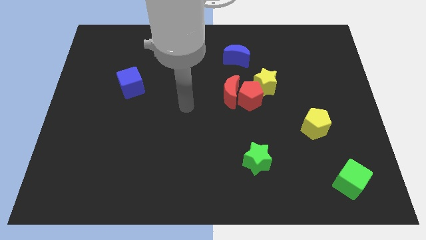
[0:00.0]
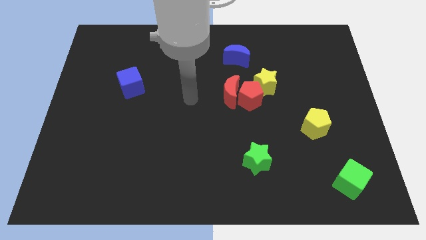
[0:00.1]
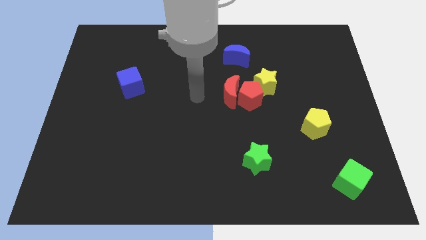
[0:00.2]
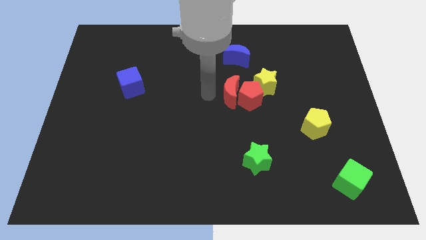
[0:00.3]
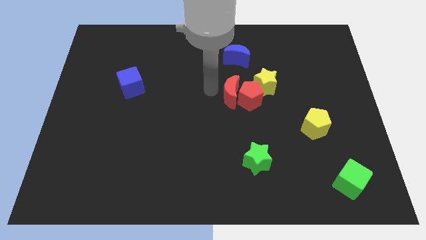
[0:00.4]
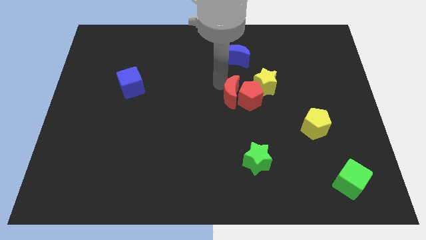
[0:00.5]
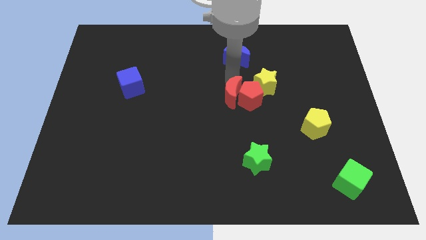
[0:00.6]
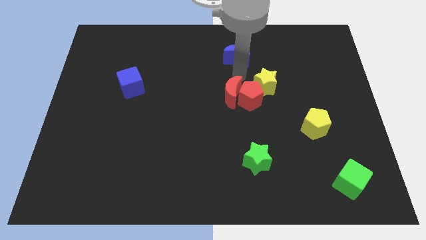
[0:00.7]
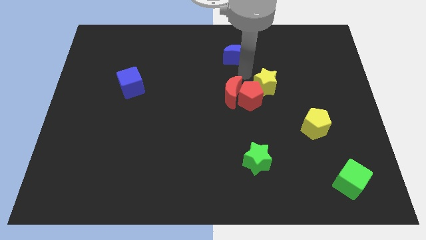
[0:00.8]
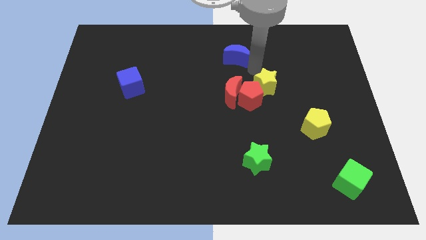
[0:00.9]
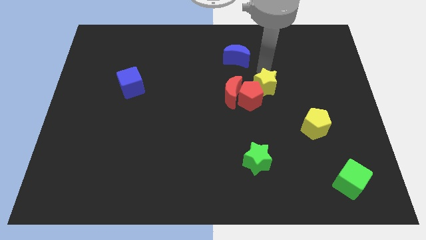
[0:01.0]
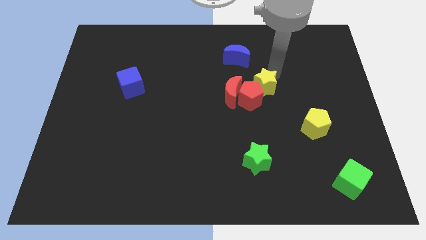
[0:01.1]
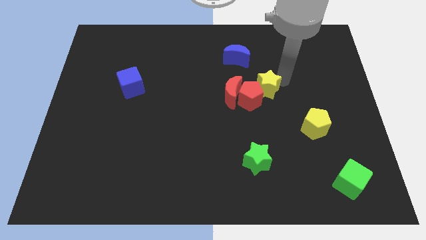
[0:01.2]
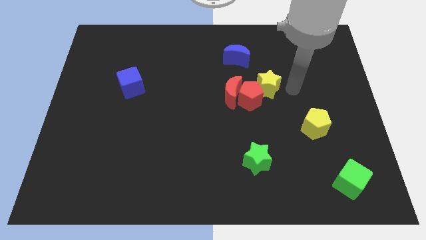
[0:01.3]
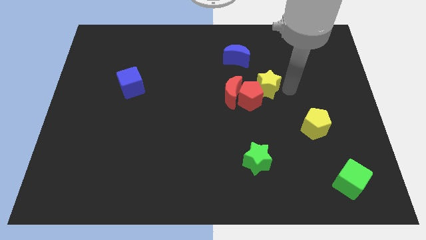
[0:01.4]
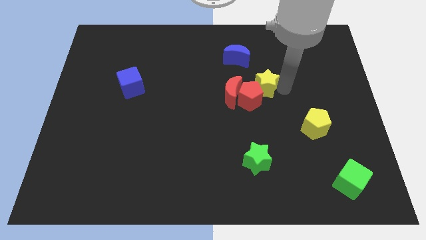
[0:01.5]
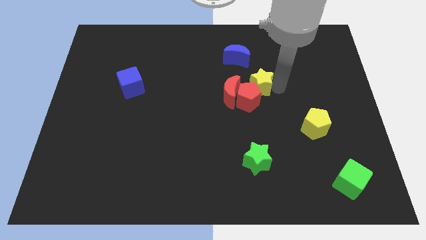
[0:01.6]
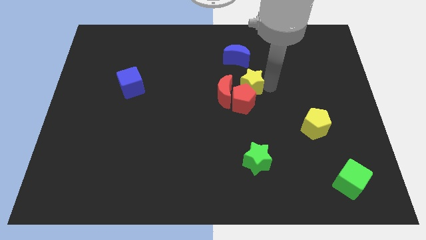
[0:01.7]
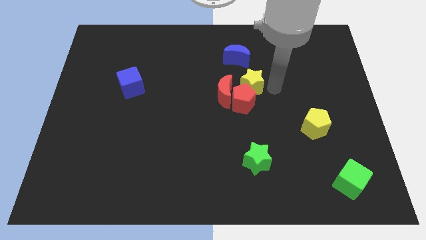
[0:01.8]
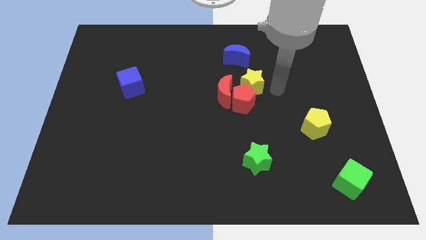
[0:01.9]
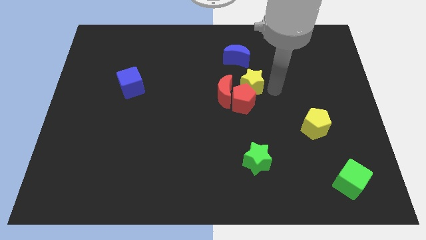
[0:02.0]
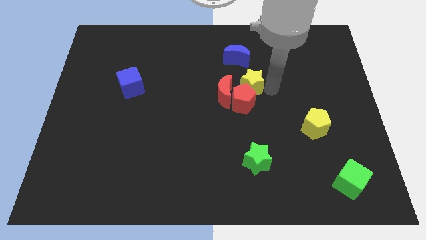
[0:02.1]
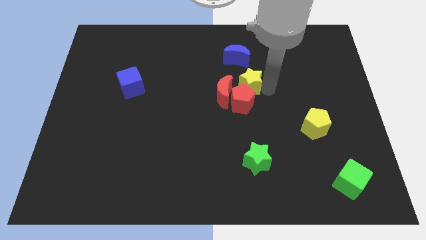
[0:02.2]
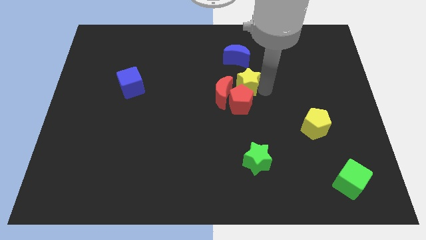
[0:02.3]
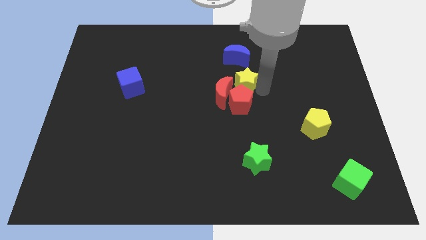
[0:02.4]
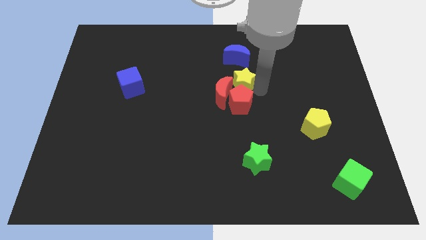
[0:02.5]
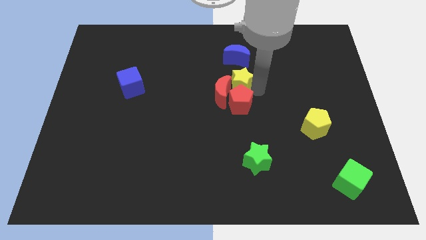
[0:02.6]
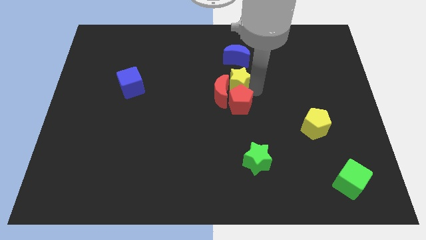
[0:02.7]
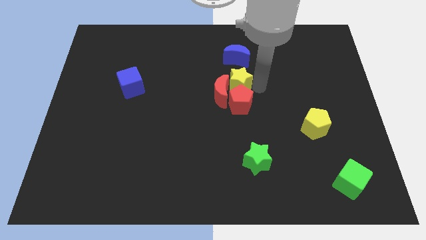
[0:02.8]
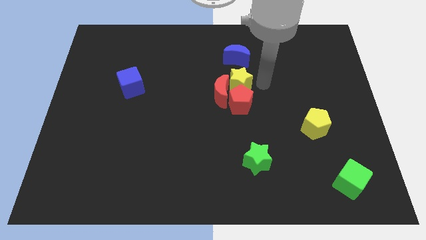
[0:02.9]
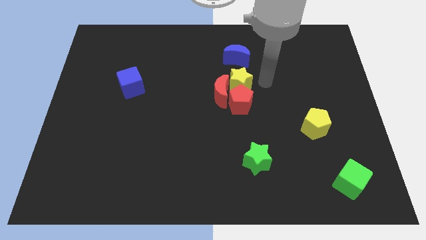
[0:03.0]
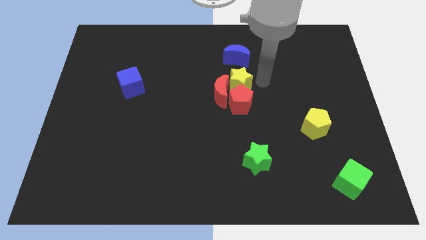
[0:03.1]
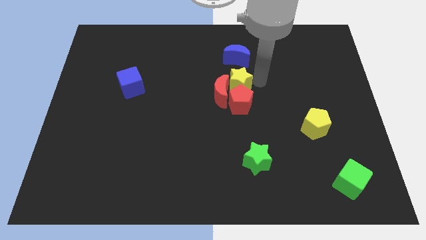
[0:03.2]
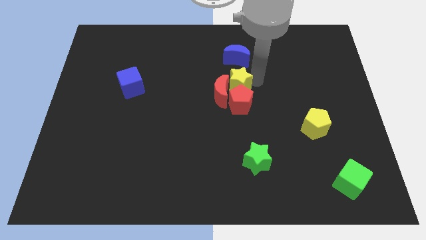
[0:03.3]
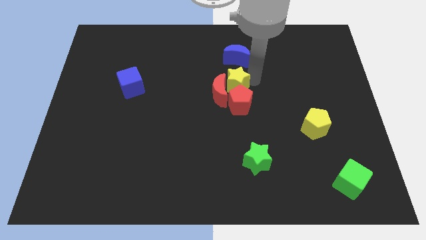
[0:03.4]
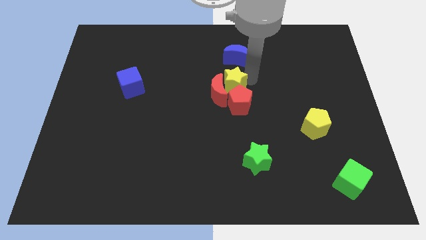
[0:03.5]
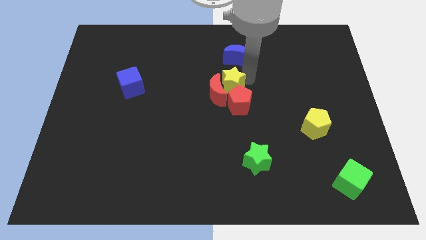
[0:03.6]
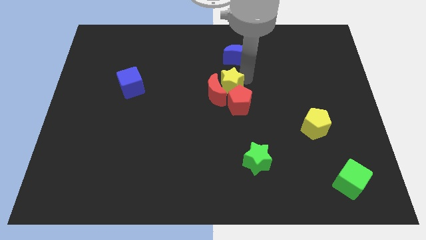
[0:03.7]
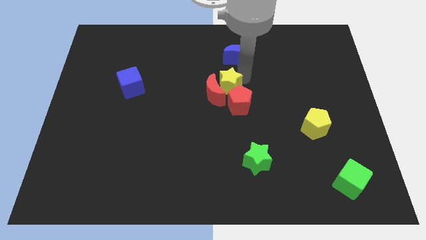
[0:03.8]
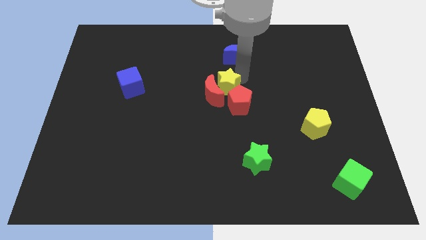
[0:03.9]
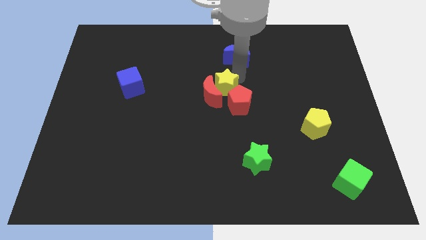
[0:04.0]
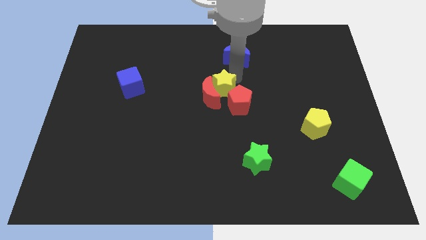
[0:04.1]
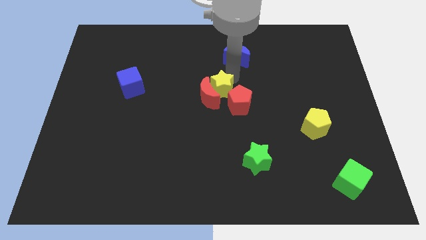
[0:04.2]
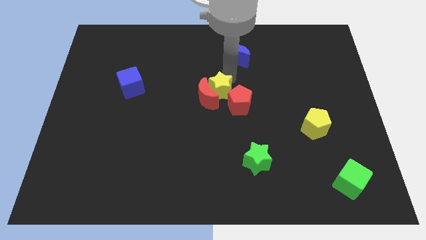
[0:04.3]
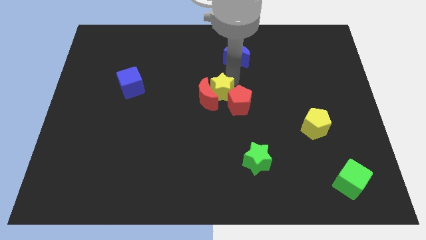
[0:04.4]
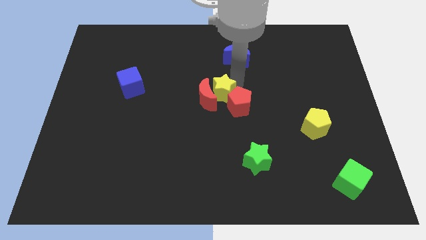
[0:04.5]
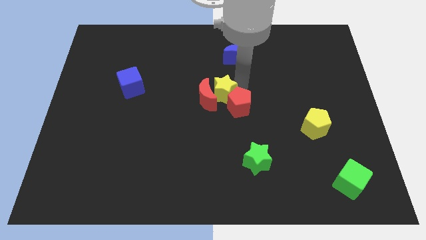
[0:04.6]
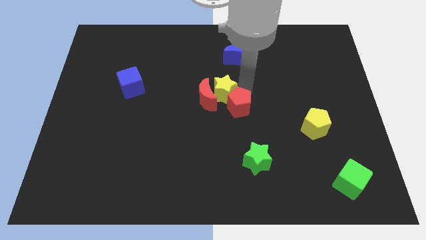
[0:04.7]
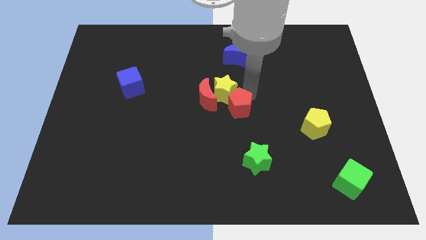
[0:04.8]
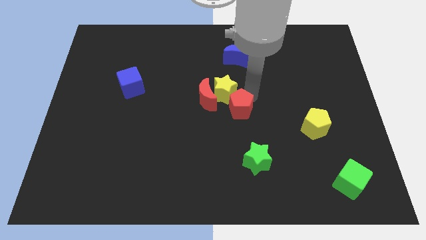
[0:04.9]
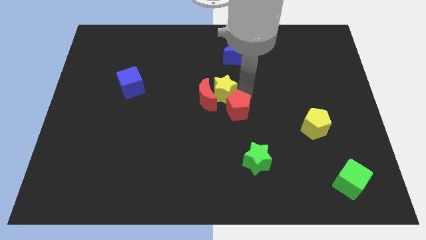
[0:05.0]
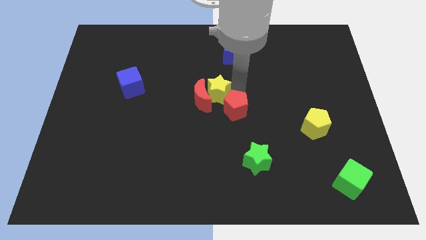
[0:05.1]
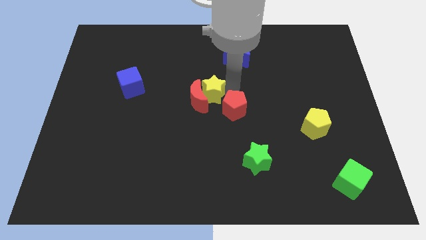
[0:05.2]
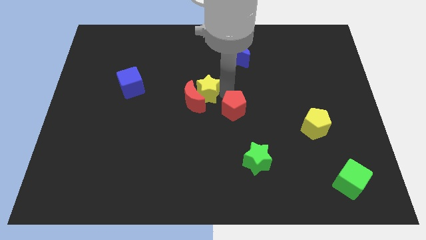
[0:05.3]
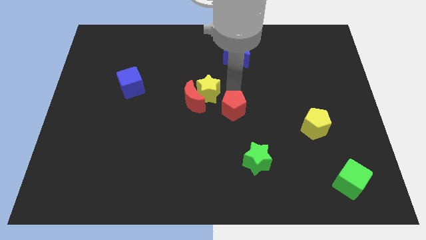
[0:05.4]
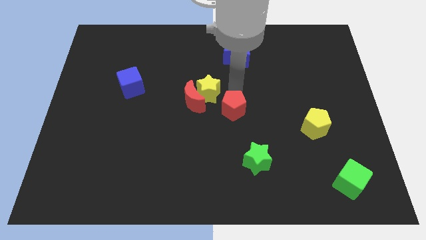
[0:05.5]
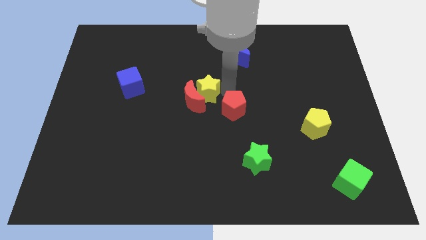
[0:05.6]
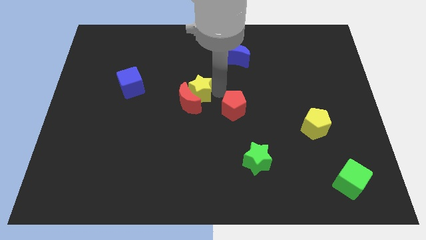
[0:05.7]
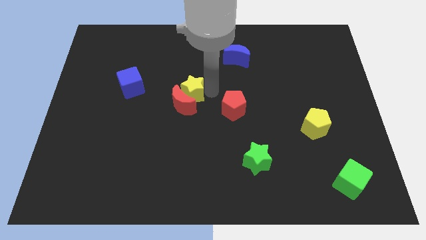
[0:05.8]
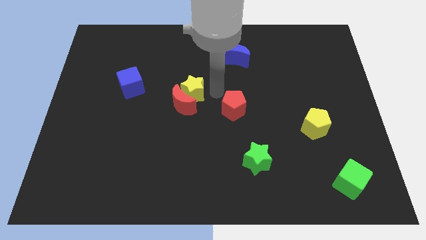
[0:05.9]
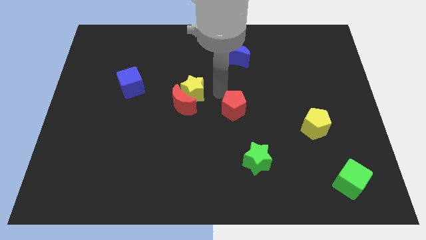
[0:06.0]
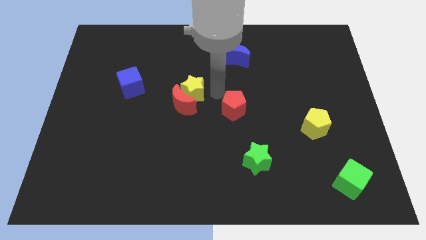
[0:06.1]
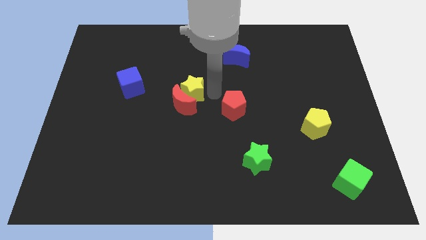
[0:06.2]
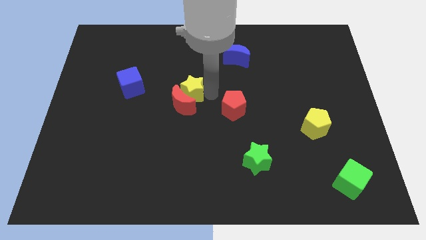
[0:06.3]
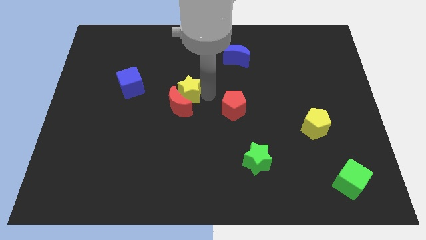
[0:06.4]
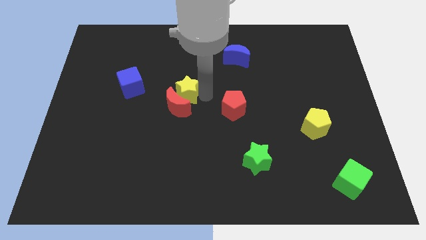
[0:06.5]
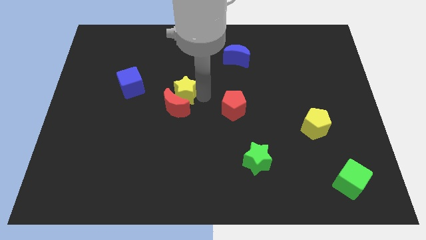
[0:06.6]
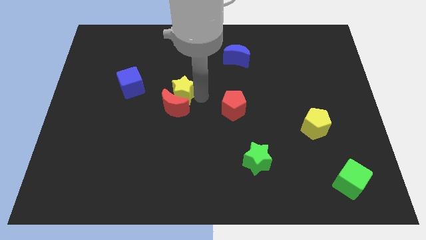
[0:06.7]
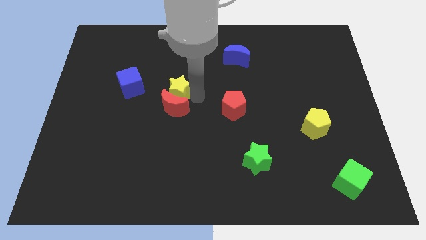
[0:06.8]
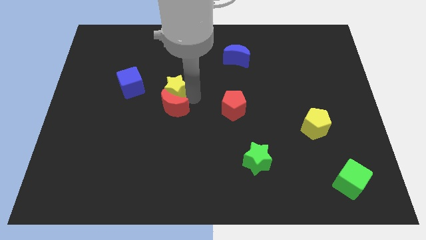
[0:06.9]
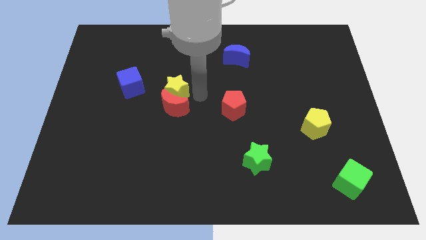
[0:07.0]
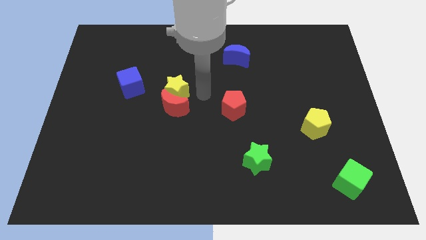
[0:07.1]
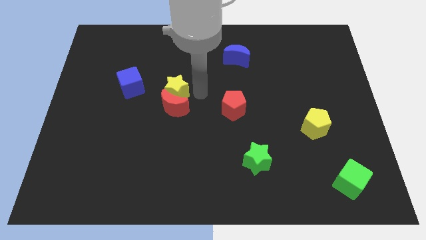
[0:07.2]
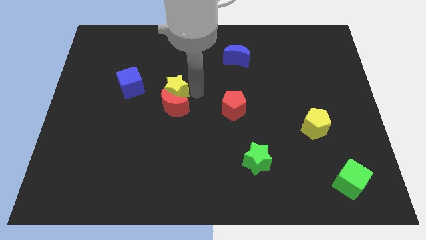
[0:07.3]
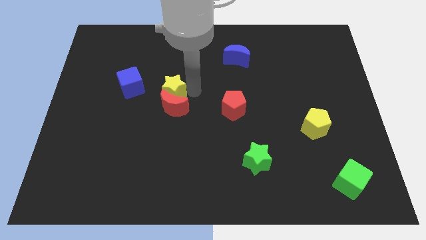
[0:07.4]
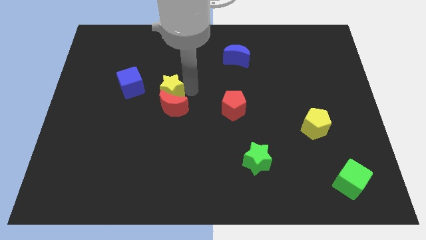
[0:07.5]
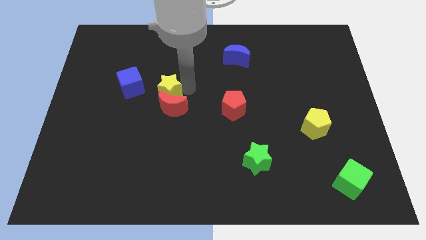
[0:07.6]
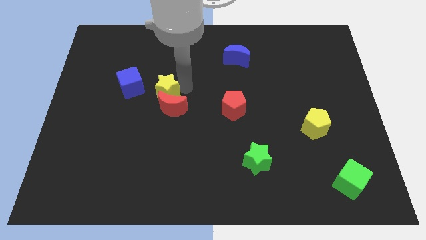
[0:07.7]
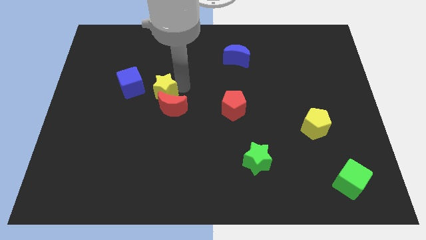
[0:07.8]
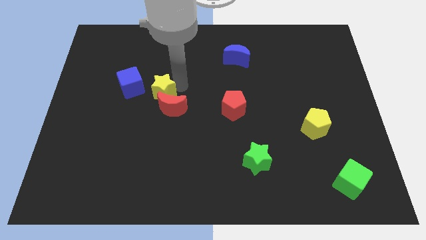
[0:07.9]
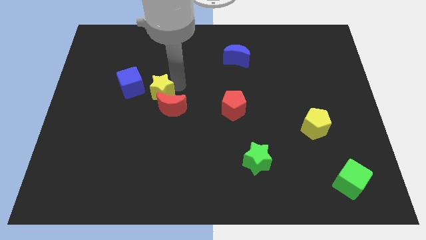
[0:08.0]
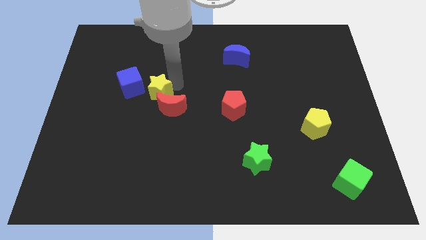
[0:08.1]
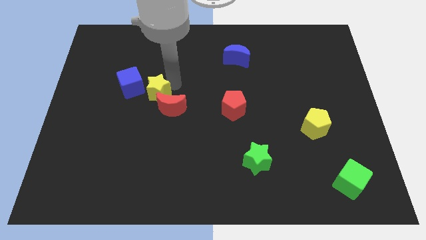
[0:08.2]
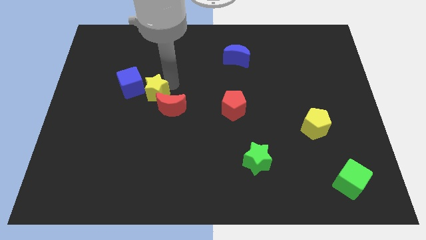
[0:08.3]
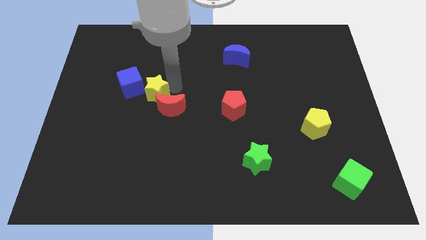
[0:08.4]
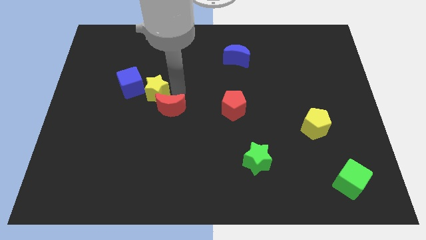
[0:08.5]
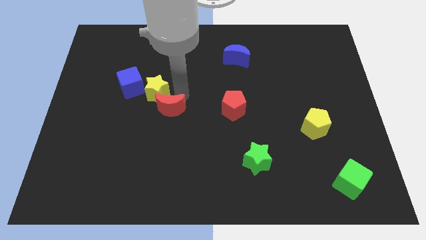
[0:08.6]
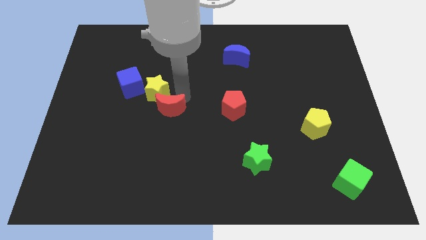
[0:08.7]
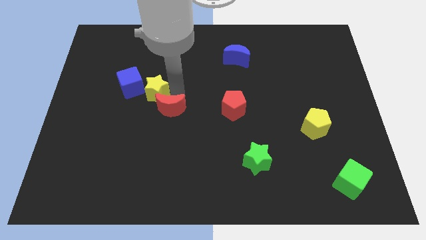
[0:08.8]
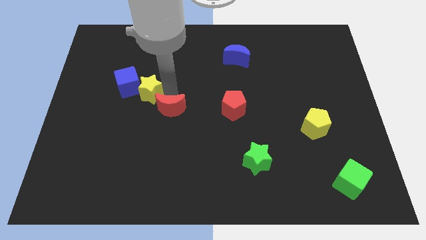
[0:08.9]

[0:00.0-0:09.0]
slide the yellow star next to the blue cube
